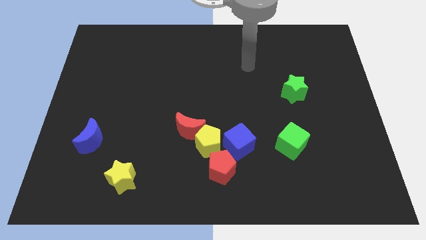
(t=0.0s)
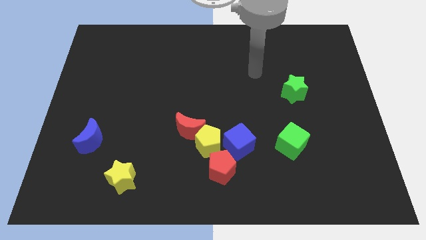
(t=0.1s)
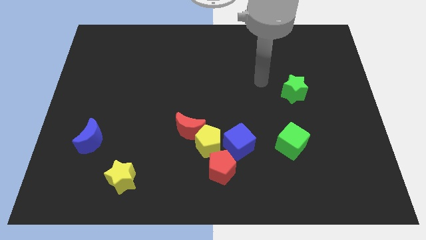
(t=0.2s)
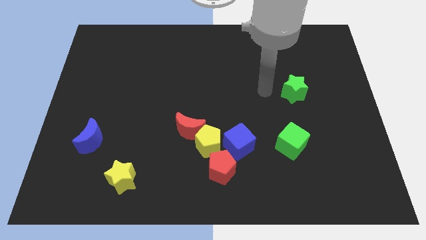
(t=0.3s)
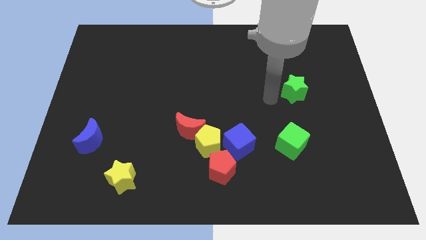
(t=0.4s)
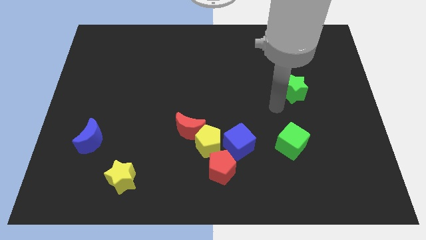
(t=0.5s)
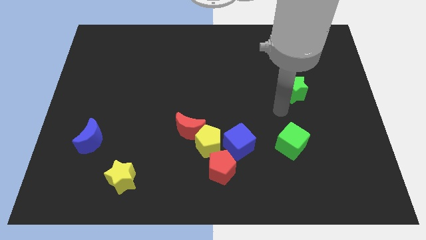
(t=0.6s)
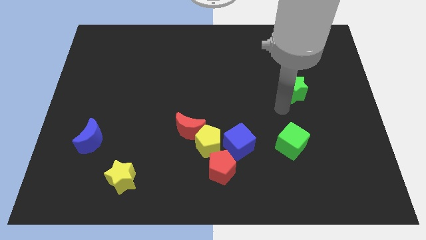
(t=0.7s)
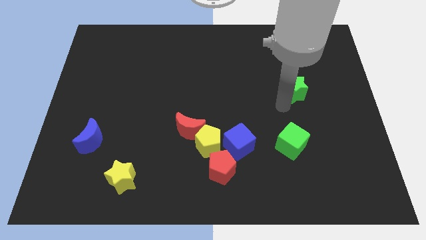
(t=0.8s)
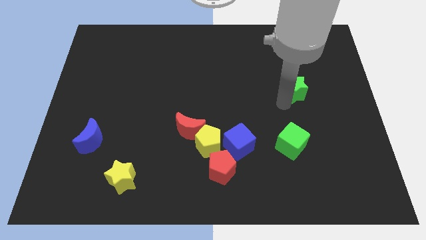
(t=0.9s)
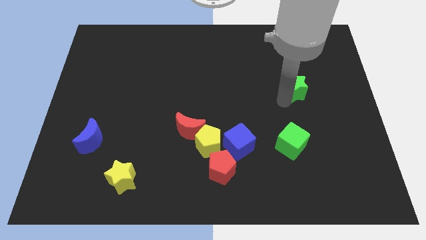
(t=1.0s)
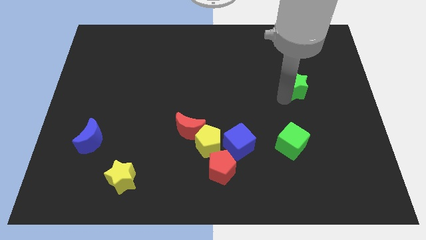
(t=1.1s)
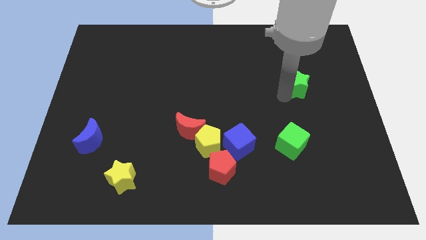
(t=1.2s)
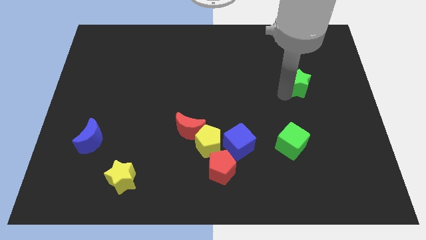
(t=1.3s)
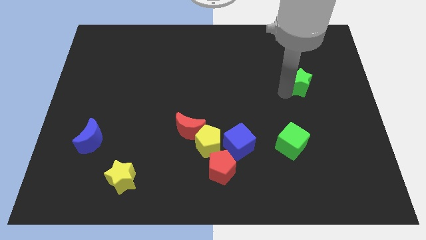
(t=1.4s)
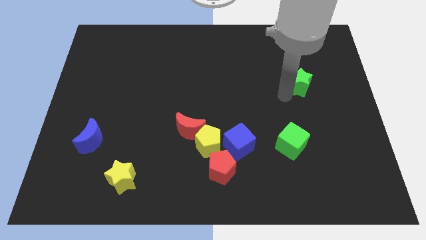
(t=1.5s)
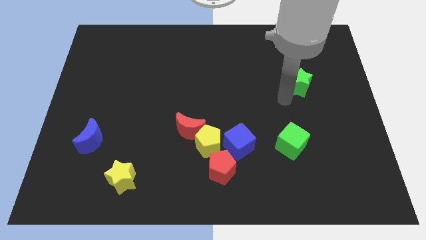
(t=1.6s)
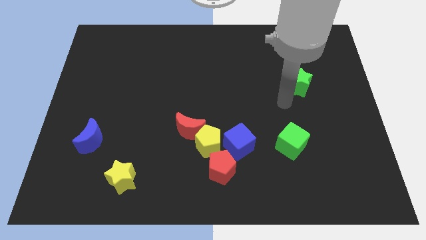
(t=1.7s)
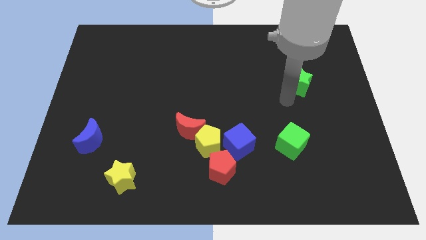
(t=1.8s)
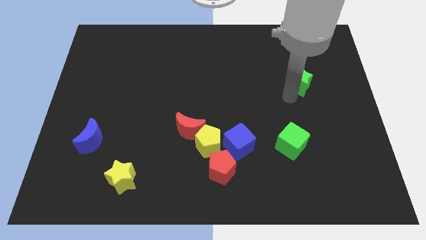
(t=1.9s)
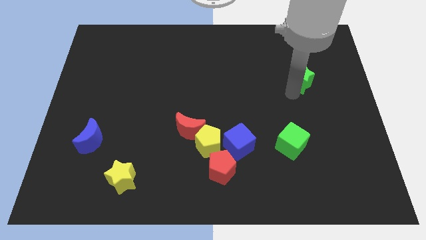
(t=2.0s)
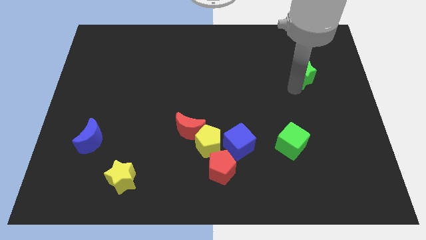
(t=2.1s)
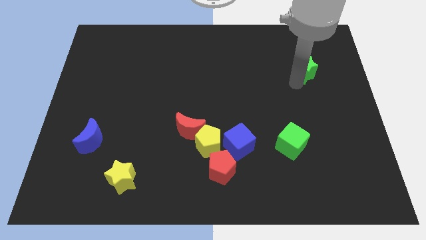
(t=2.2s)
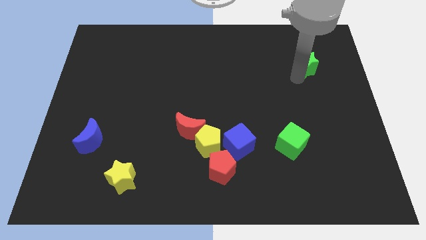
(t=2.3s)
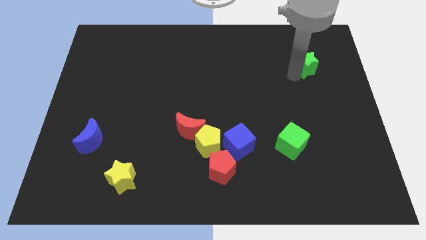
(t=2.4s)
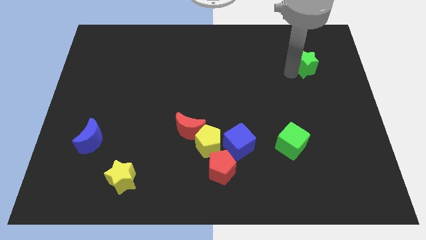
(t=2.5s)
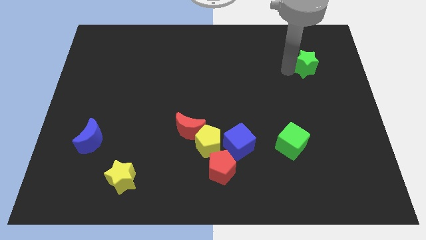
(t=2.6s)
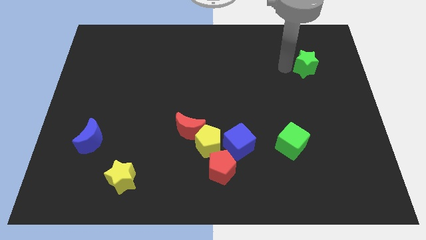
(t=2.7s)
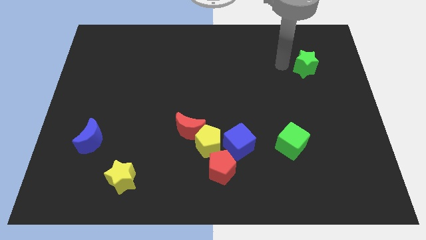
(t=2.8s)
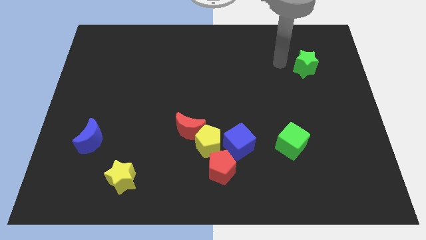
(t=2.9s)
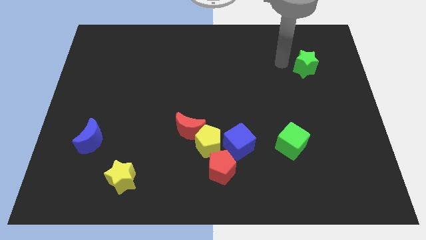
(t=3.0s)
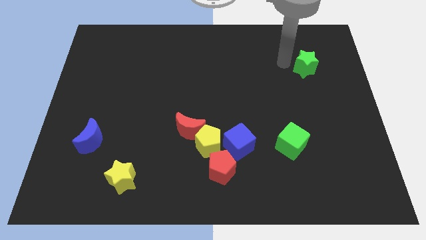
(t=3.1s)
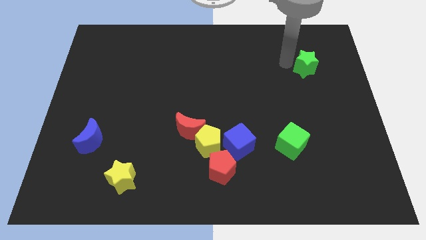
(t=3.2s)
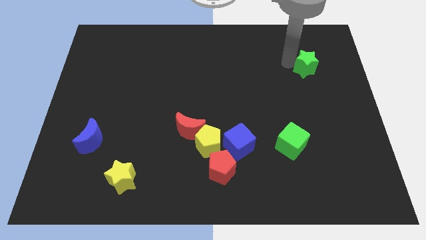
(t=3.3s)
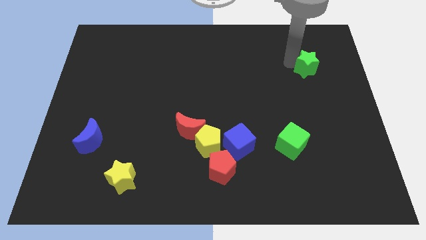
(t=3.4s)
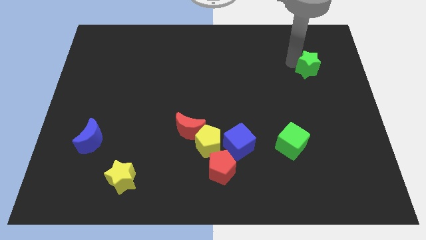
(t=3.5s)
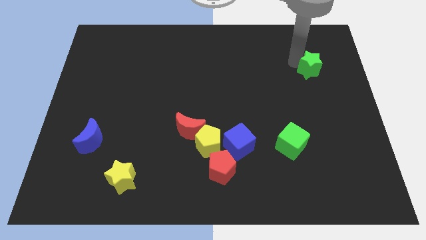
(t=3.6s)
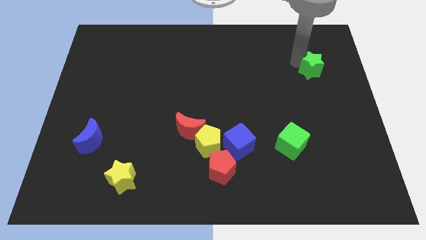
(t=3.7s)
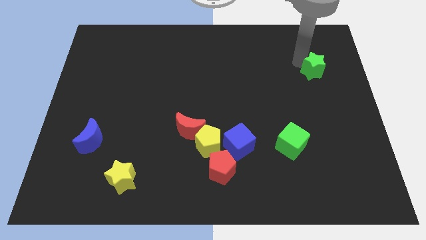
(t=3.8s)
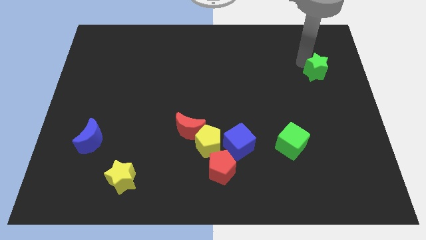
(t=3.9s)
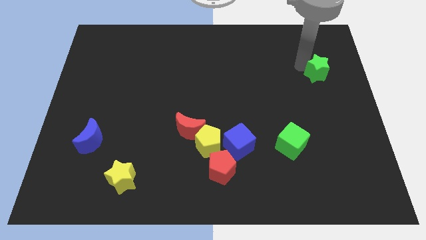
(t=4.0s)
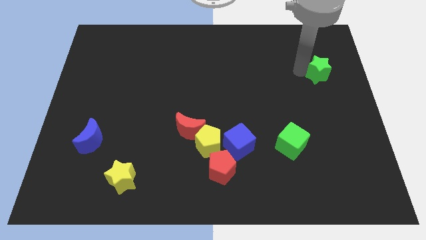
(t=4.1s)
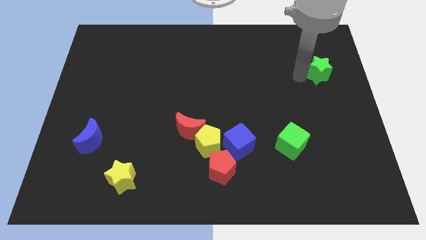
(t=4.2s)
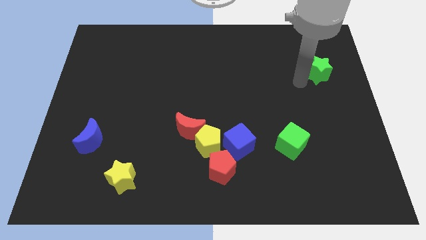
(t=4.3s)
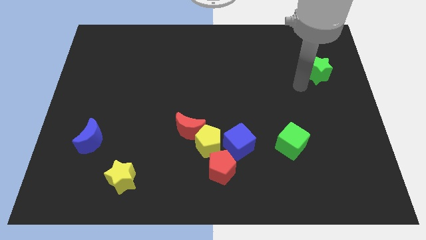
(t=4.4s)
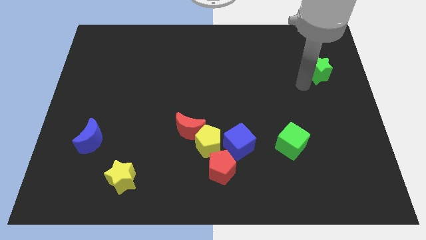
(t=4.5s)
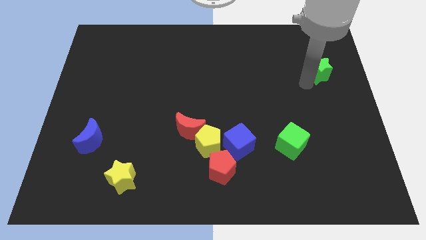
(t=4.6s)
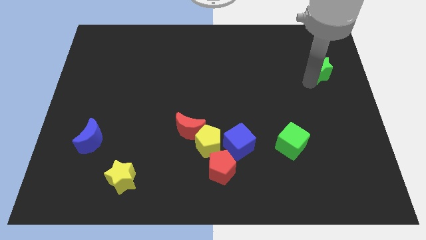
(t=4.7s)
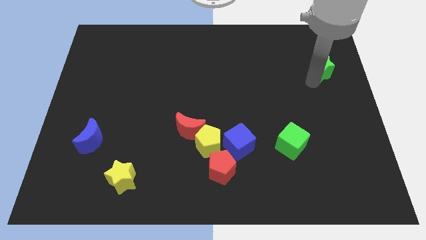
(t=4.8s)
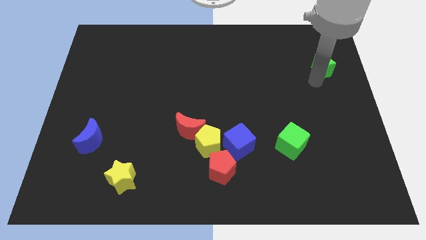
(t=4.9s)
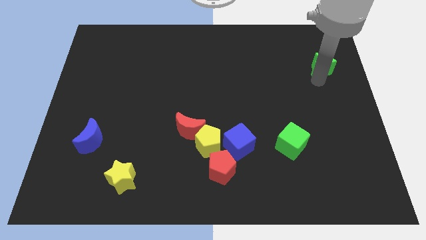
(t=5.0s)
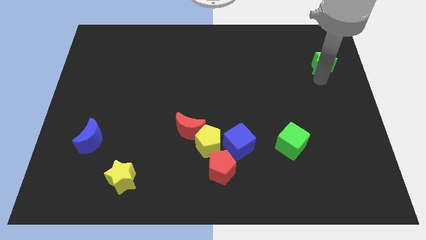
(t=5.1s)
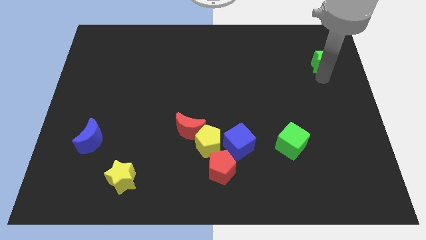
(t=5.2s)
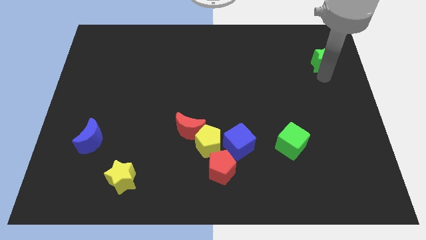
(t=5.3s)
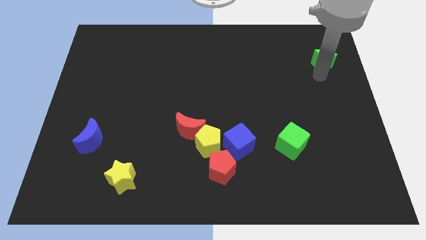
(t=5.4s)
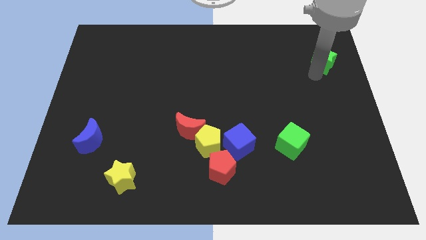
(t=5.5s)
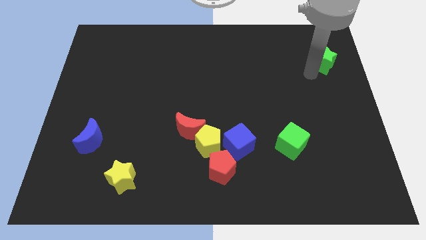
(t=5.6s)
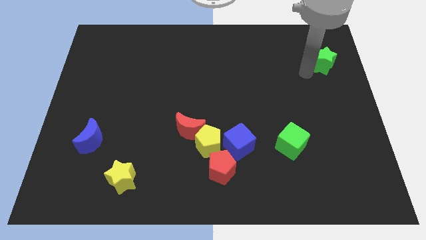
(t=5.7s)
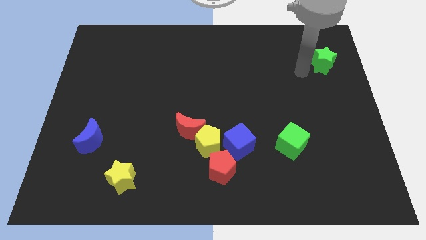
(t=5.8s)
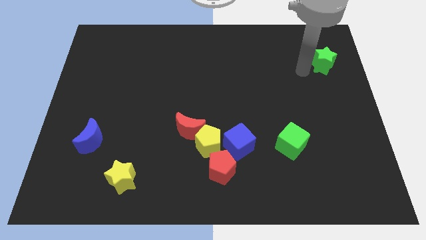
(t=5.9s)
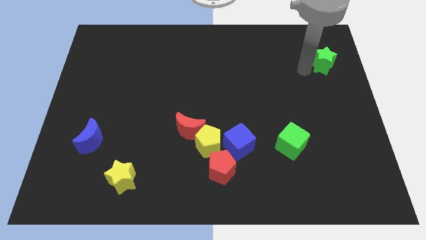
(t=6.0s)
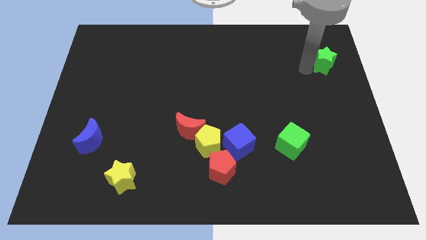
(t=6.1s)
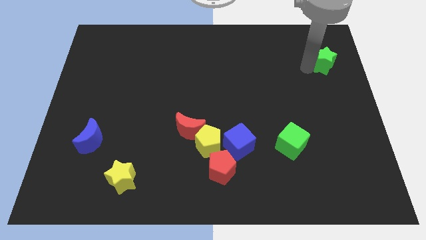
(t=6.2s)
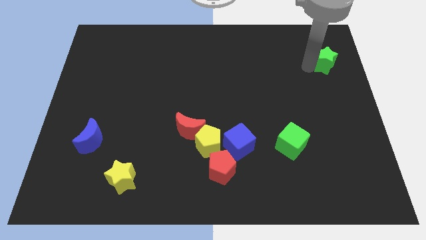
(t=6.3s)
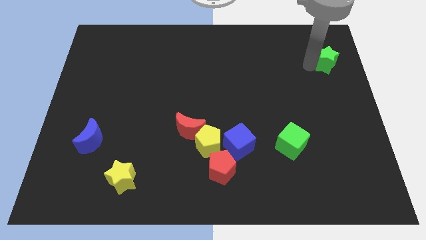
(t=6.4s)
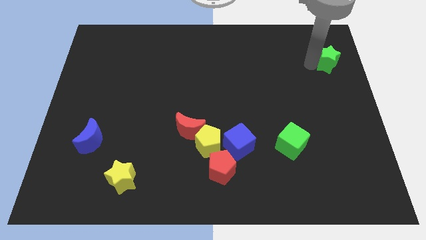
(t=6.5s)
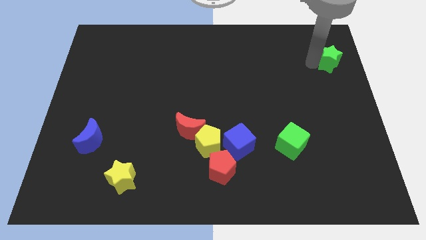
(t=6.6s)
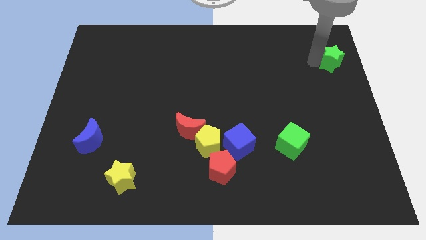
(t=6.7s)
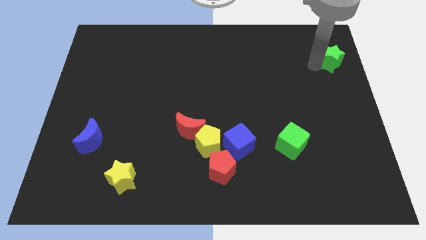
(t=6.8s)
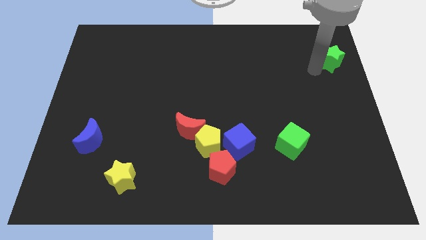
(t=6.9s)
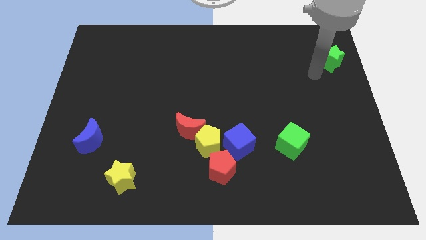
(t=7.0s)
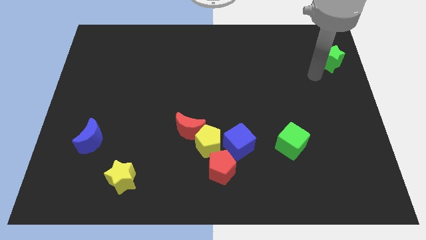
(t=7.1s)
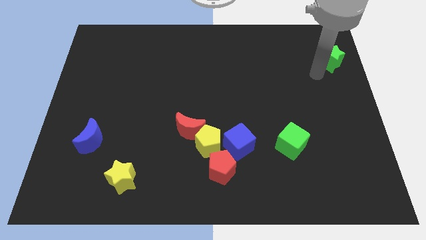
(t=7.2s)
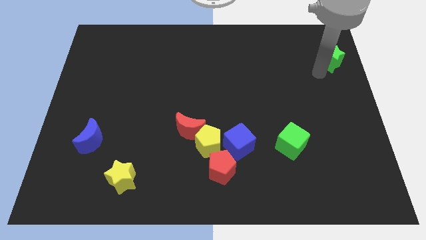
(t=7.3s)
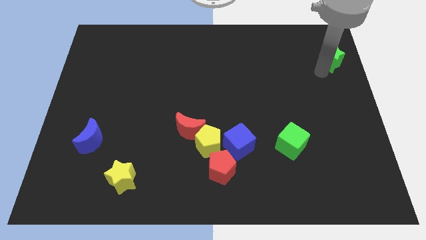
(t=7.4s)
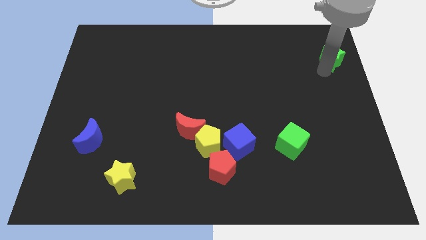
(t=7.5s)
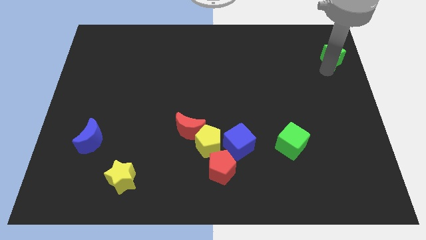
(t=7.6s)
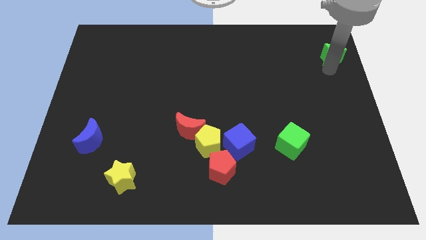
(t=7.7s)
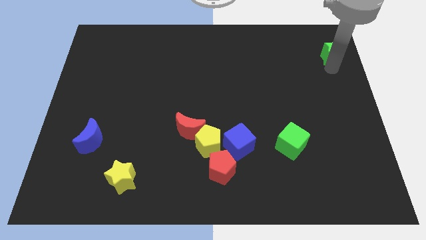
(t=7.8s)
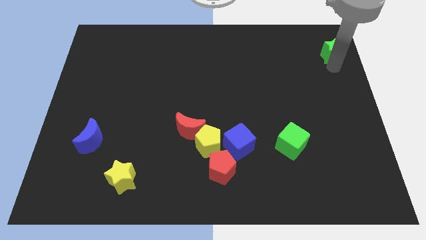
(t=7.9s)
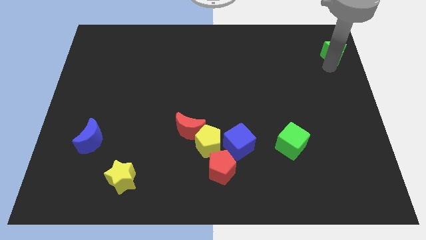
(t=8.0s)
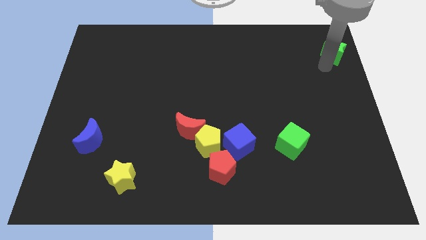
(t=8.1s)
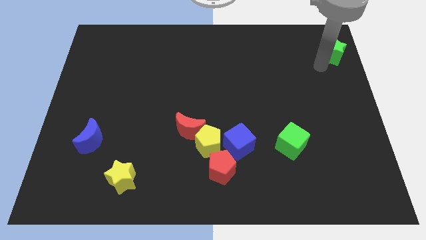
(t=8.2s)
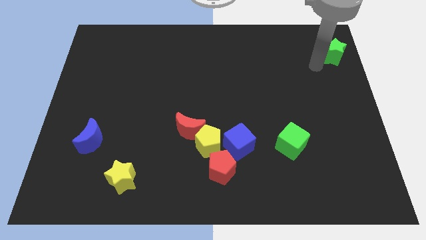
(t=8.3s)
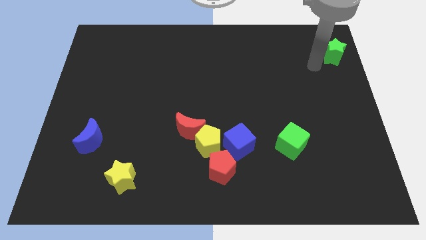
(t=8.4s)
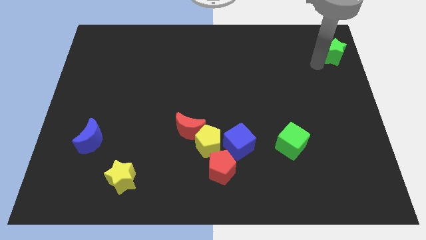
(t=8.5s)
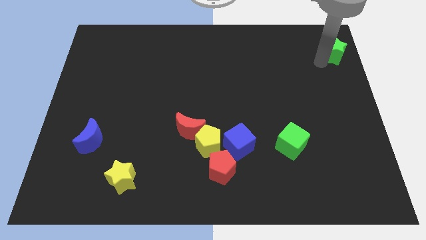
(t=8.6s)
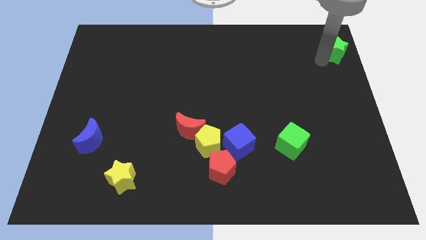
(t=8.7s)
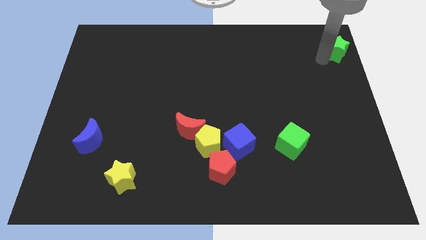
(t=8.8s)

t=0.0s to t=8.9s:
put the green star to the top right
